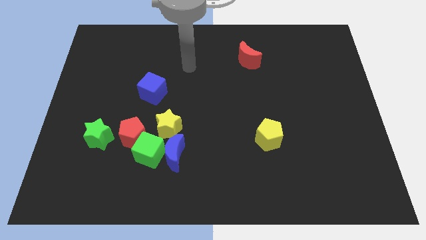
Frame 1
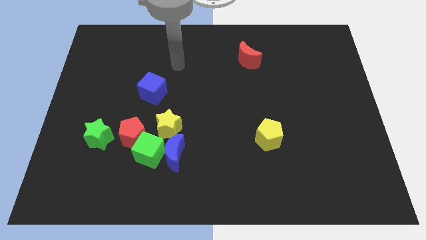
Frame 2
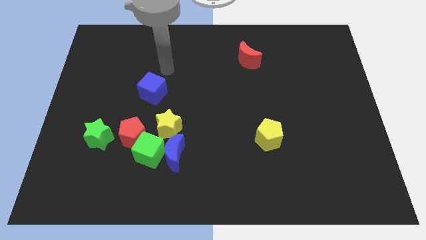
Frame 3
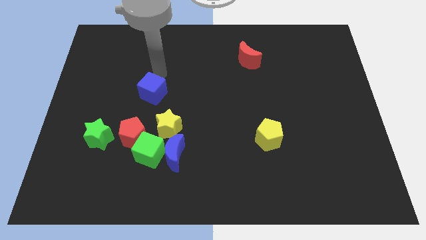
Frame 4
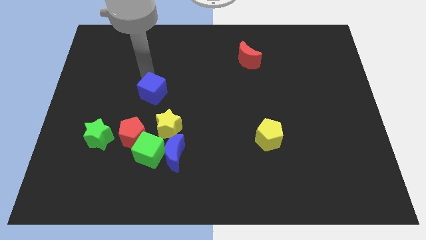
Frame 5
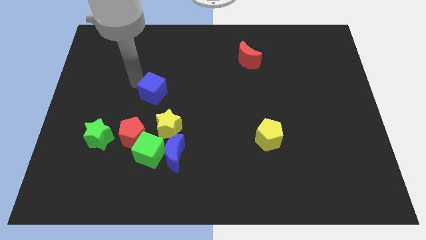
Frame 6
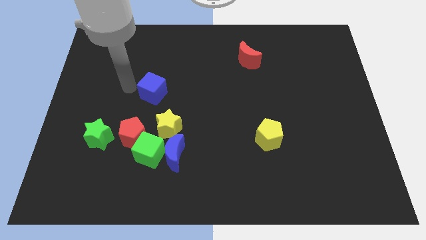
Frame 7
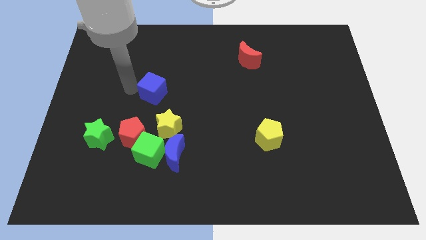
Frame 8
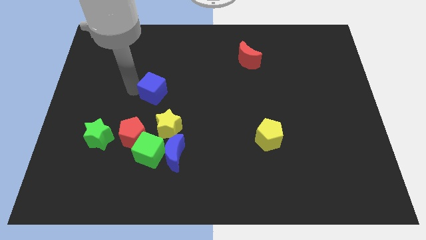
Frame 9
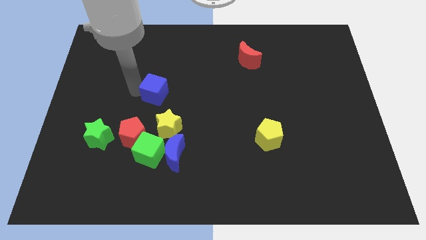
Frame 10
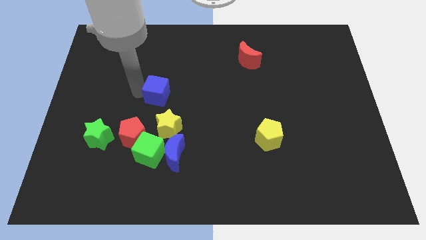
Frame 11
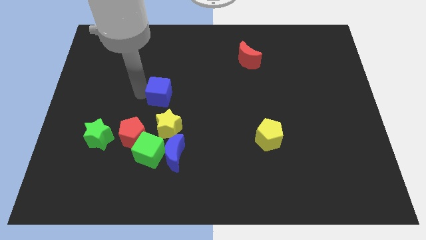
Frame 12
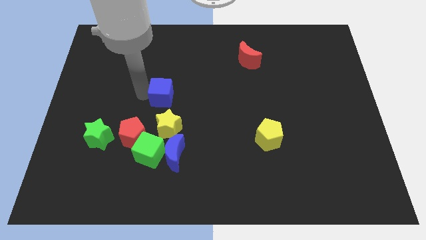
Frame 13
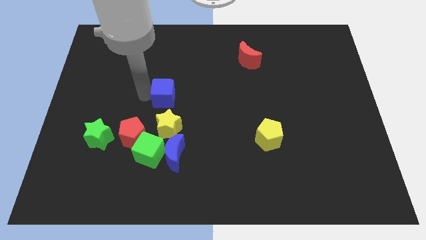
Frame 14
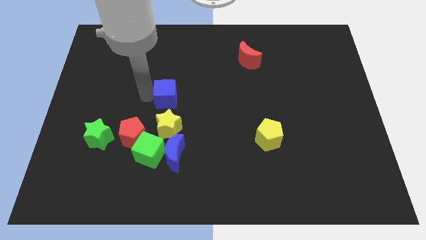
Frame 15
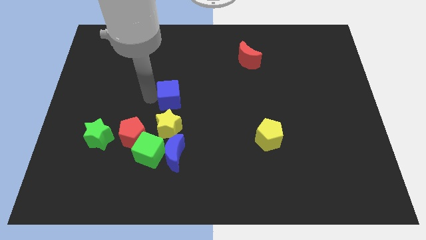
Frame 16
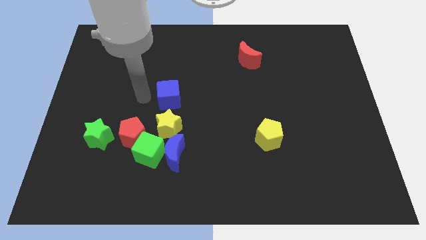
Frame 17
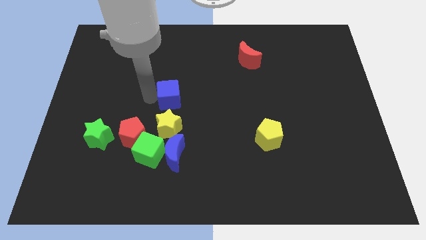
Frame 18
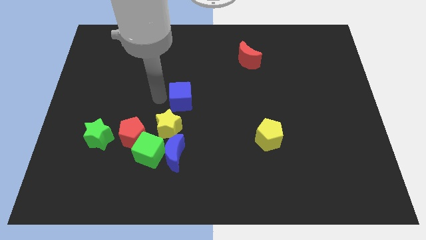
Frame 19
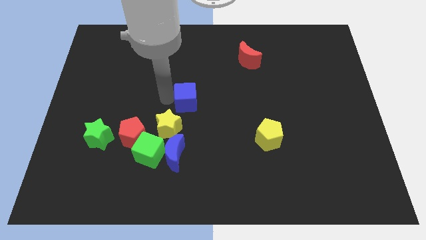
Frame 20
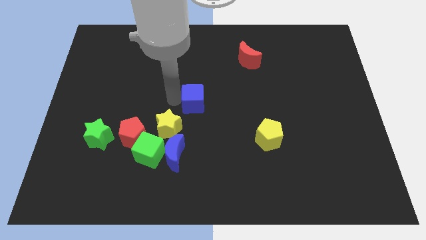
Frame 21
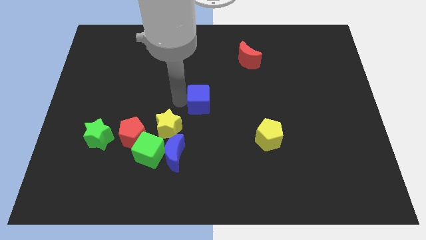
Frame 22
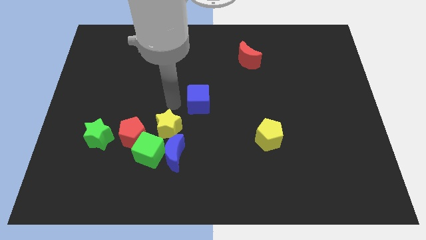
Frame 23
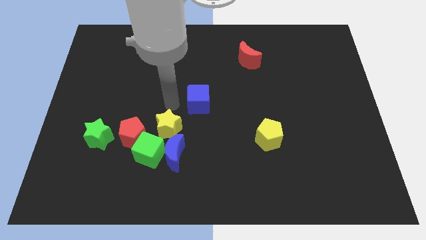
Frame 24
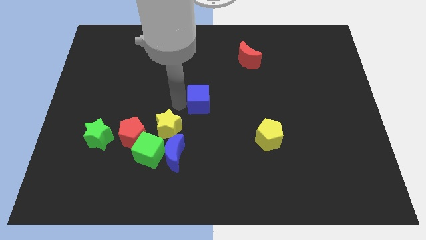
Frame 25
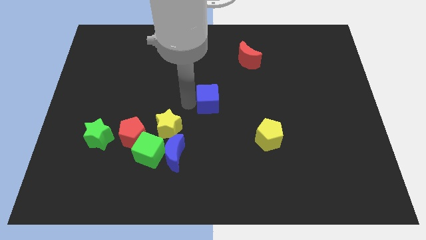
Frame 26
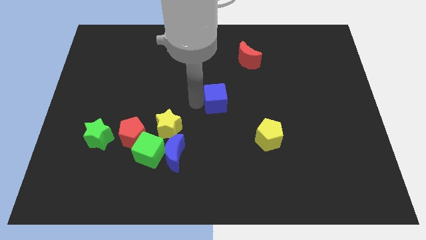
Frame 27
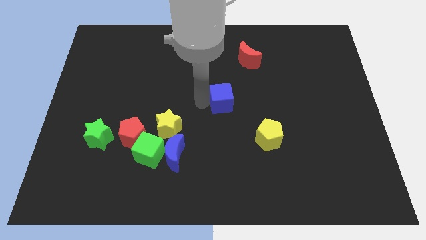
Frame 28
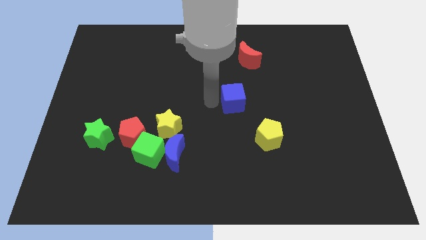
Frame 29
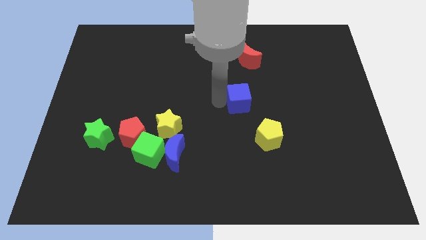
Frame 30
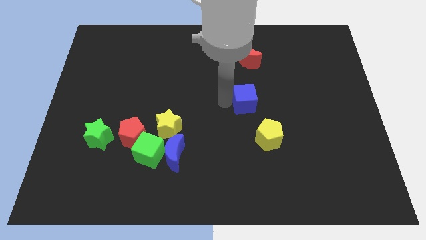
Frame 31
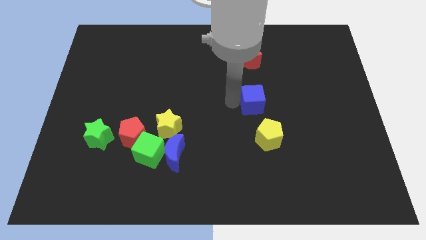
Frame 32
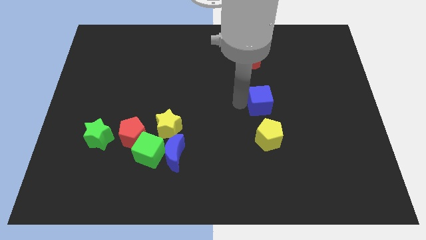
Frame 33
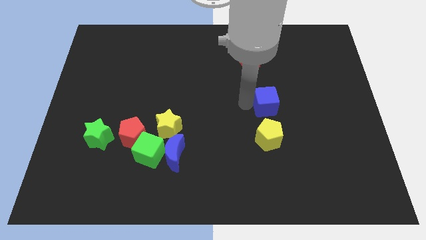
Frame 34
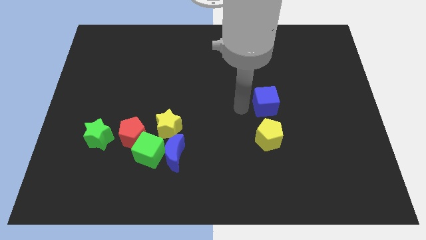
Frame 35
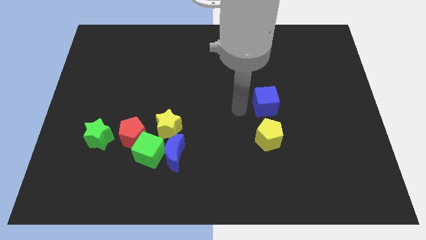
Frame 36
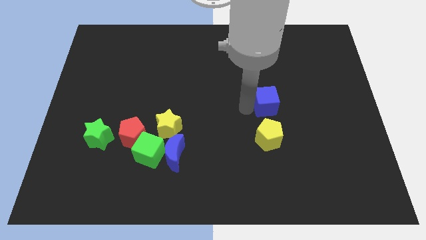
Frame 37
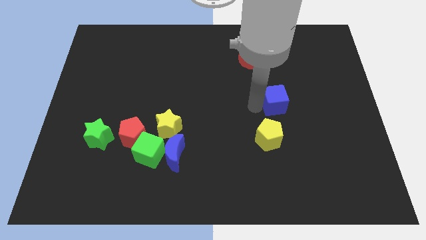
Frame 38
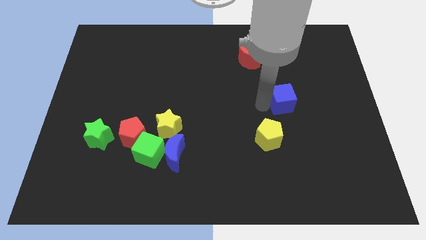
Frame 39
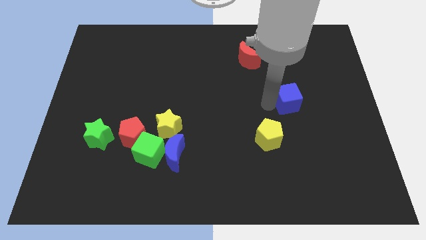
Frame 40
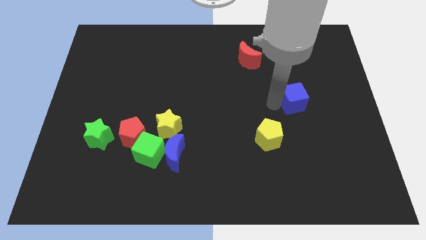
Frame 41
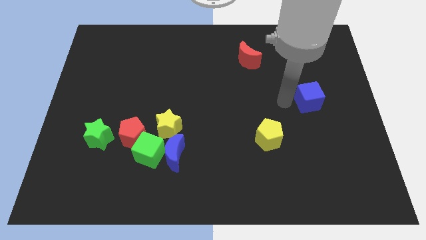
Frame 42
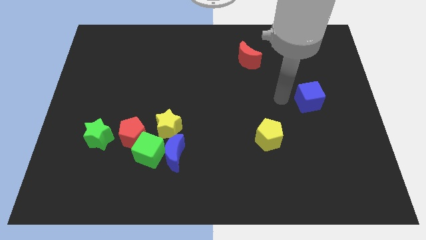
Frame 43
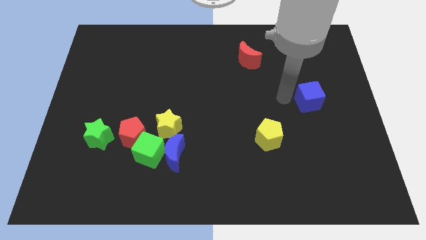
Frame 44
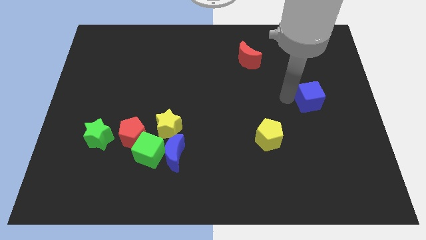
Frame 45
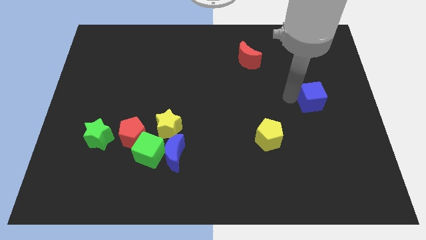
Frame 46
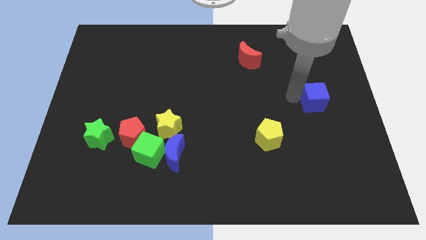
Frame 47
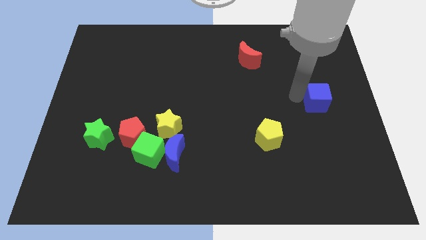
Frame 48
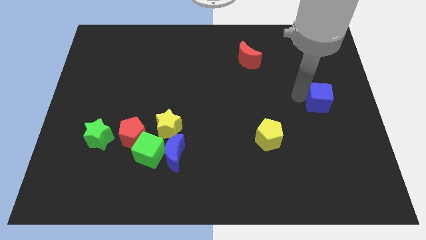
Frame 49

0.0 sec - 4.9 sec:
put the blue cube to the center right

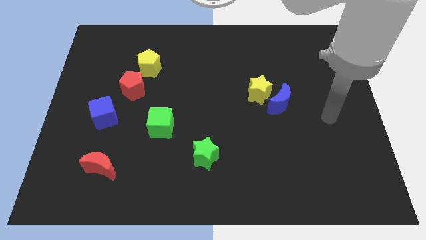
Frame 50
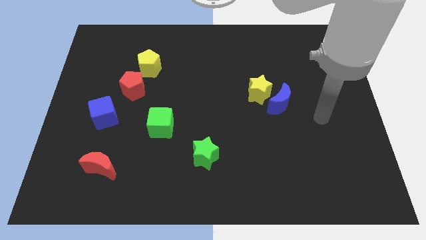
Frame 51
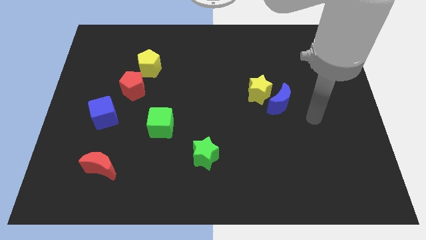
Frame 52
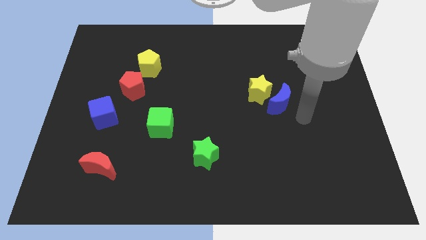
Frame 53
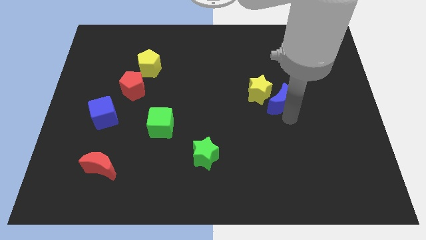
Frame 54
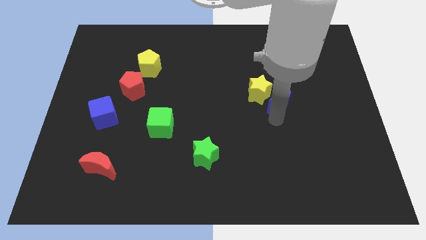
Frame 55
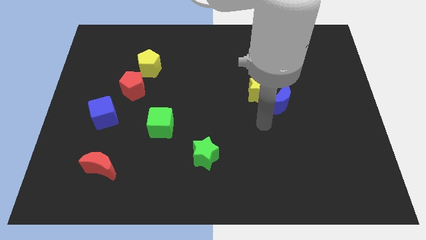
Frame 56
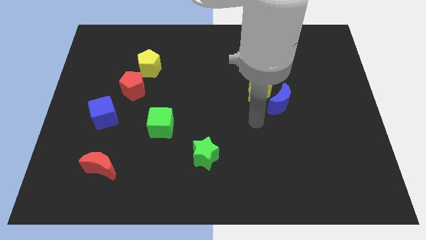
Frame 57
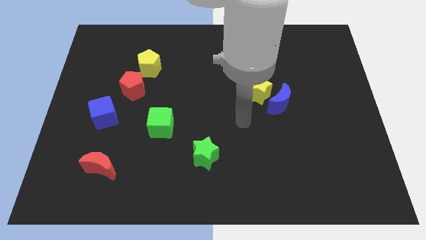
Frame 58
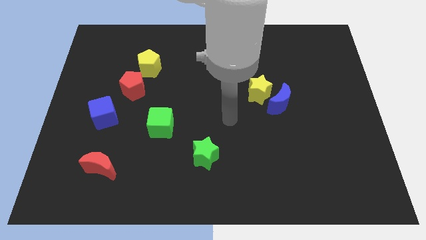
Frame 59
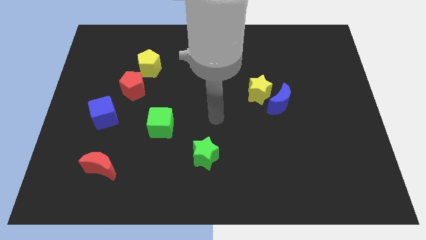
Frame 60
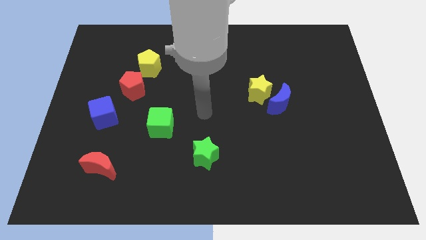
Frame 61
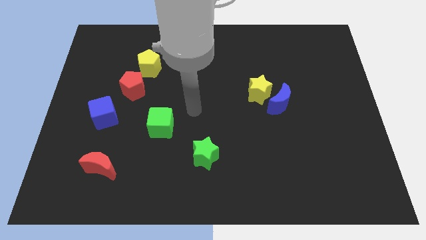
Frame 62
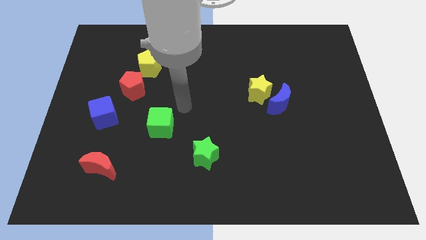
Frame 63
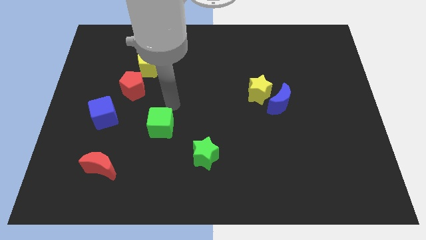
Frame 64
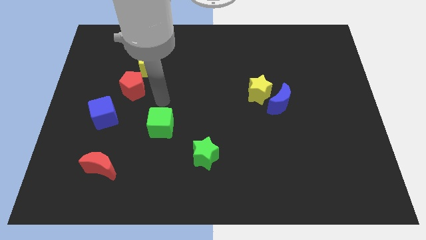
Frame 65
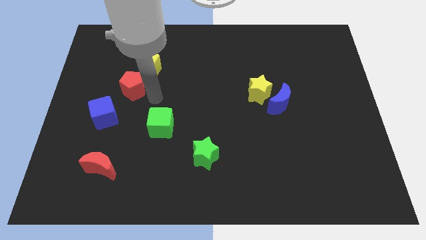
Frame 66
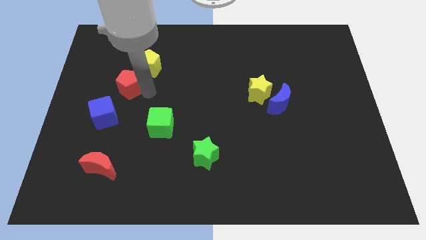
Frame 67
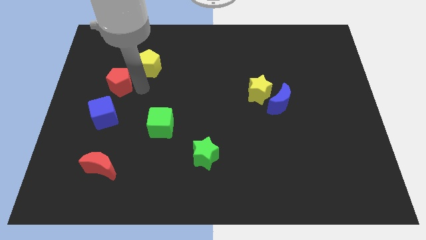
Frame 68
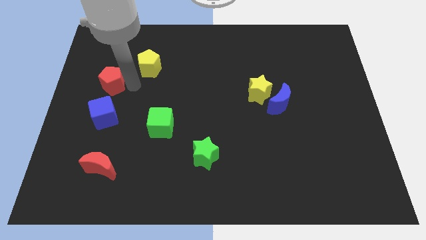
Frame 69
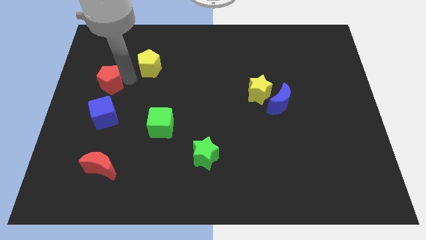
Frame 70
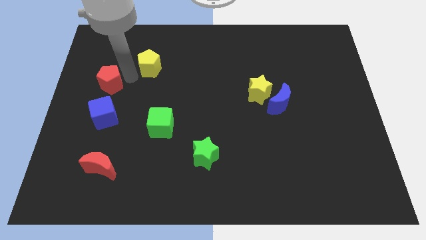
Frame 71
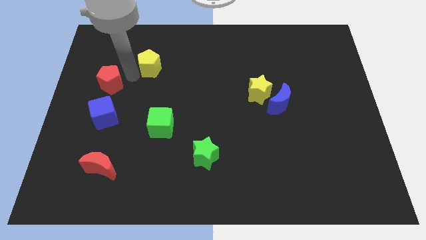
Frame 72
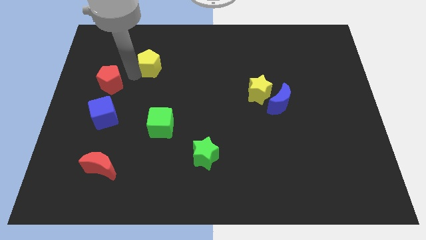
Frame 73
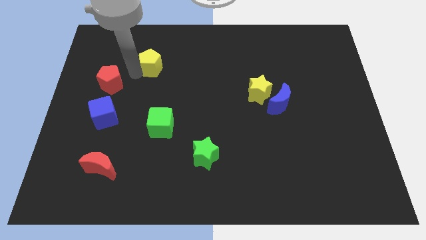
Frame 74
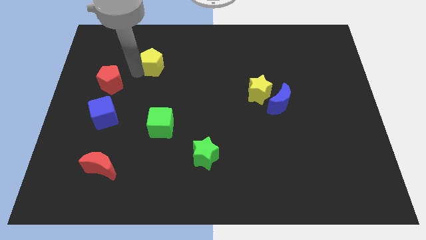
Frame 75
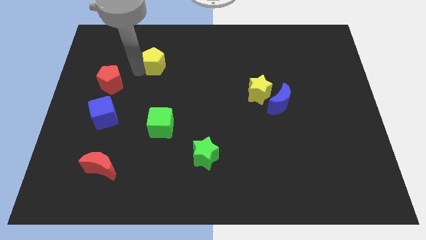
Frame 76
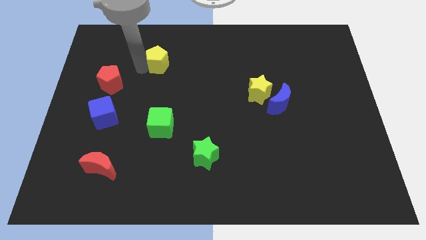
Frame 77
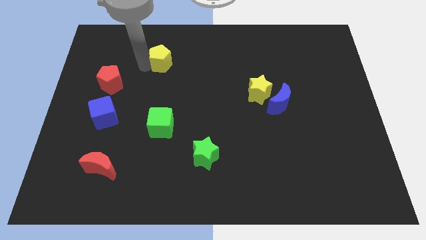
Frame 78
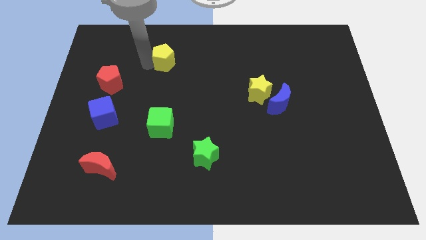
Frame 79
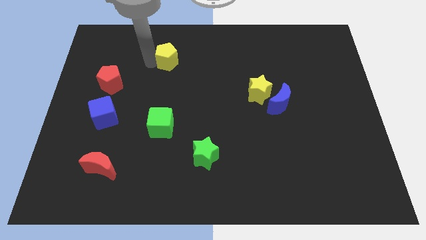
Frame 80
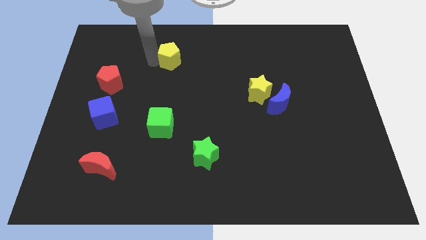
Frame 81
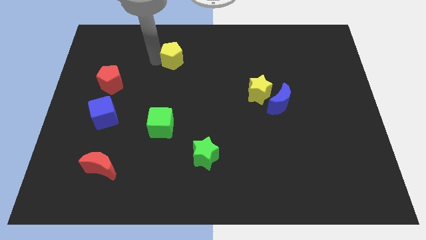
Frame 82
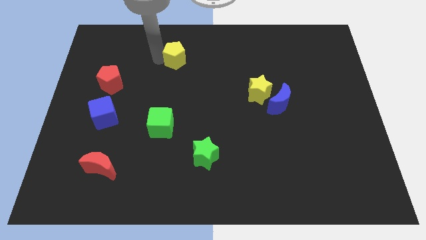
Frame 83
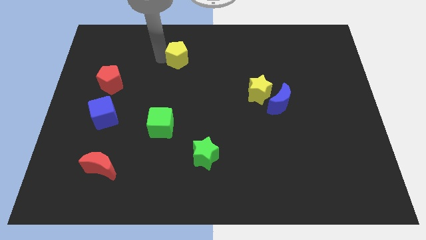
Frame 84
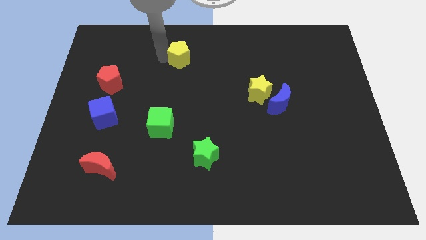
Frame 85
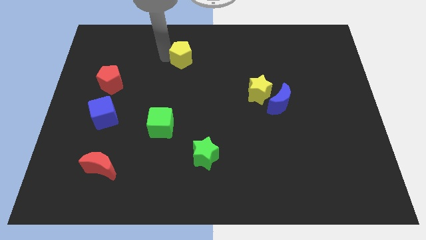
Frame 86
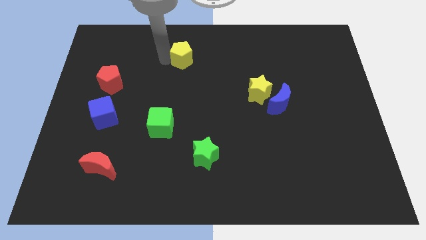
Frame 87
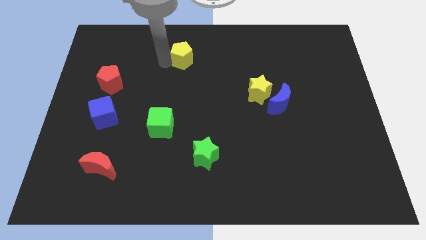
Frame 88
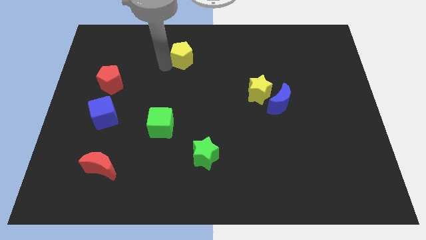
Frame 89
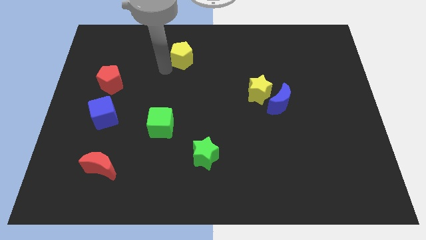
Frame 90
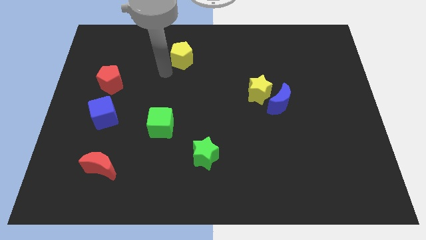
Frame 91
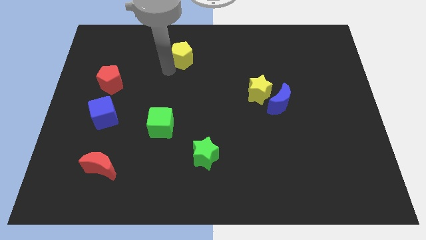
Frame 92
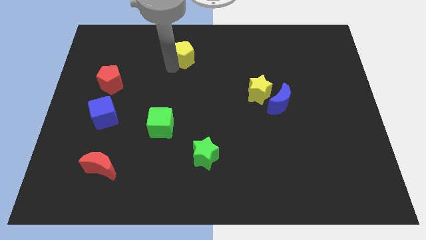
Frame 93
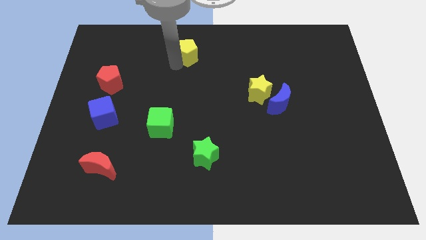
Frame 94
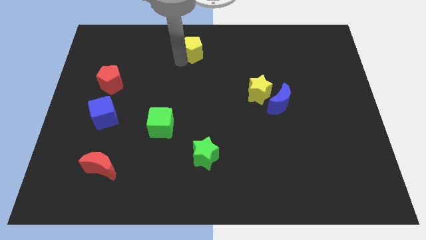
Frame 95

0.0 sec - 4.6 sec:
push the yellow pentagon to the towards your base
